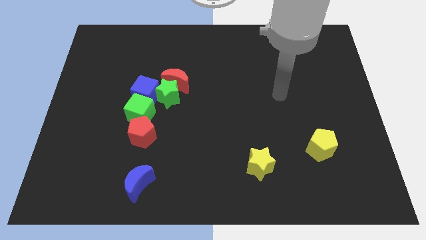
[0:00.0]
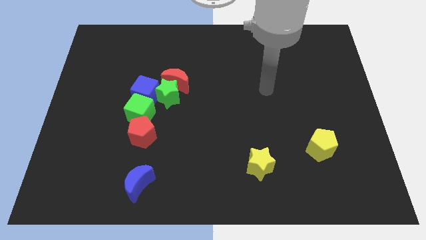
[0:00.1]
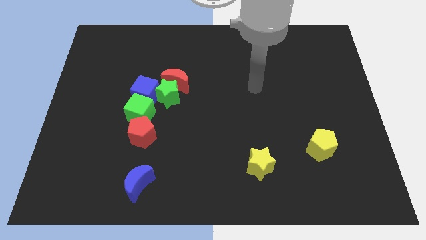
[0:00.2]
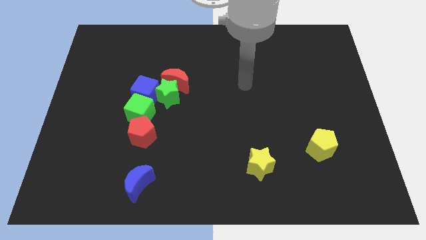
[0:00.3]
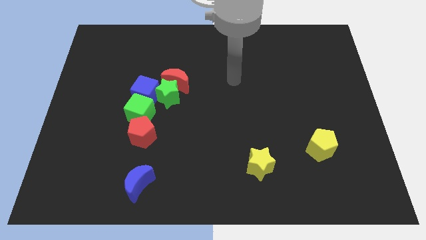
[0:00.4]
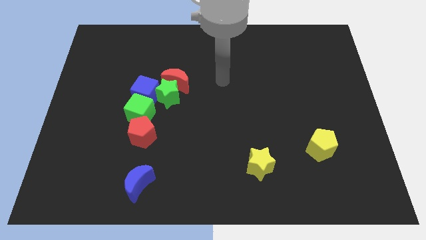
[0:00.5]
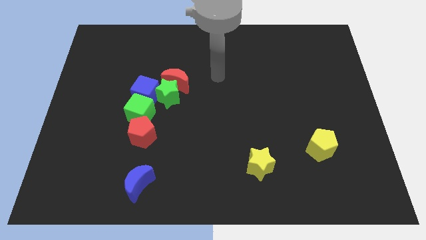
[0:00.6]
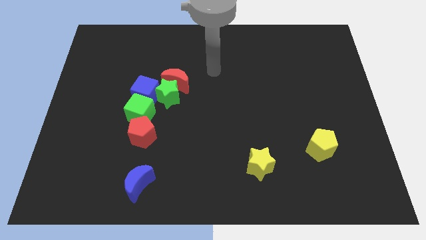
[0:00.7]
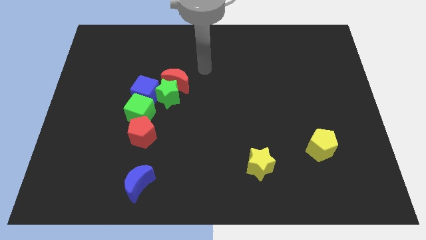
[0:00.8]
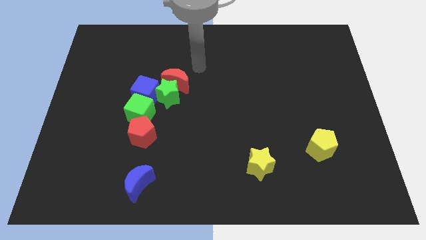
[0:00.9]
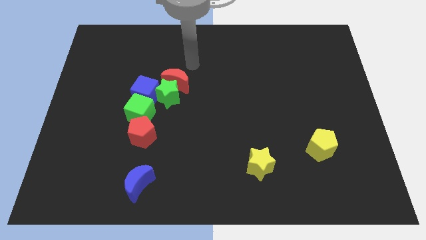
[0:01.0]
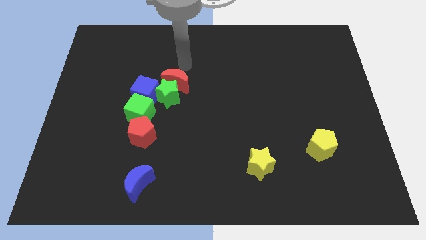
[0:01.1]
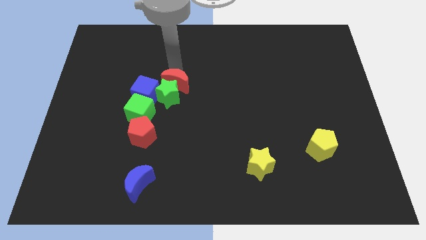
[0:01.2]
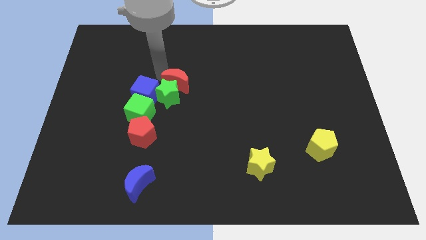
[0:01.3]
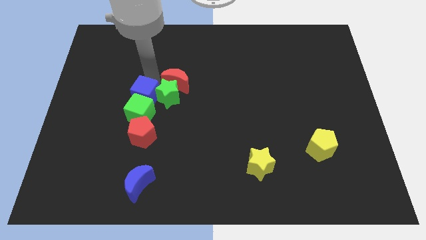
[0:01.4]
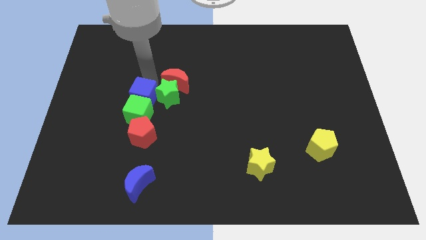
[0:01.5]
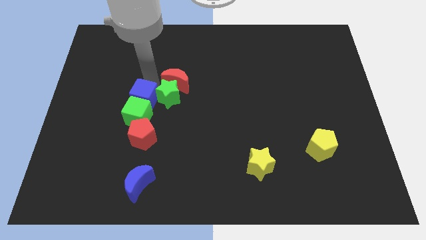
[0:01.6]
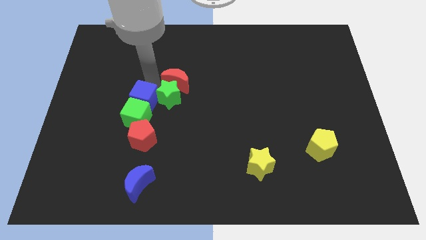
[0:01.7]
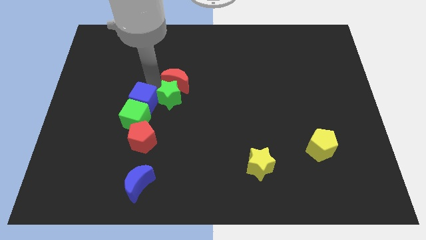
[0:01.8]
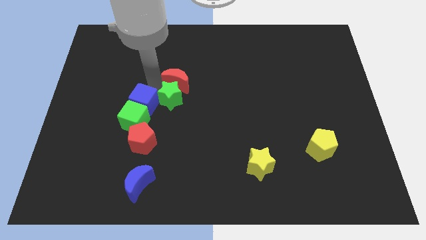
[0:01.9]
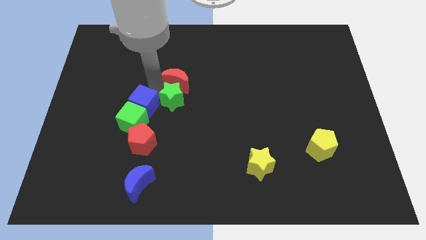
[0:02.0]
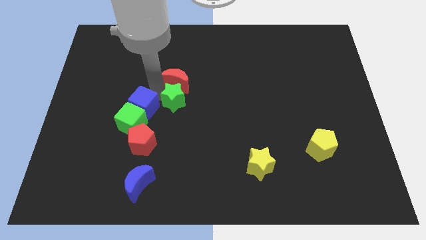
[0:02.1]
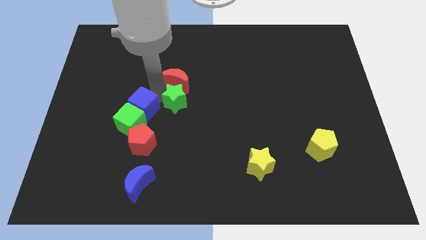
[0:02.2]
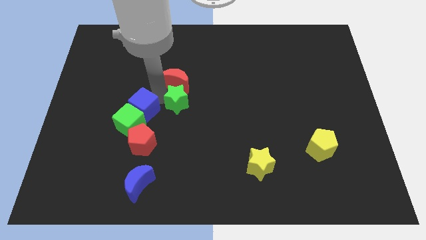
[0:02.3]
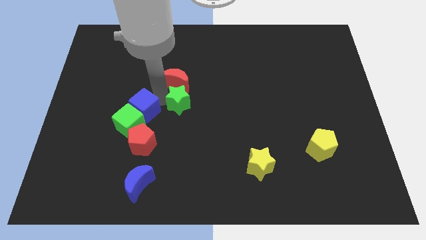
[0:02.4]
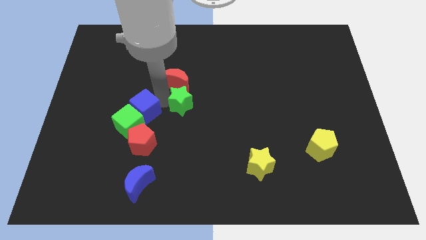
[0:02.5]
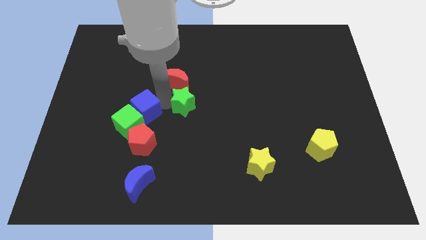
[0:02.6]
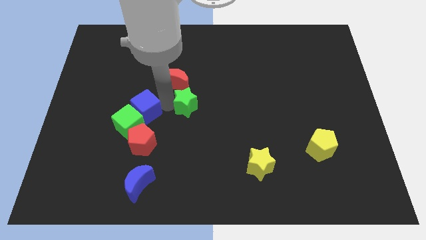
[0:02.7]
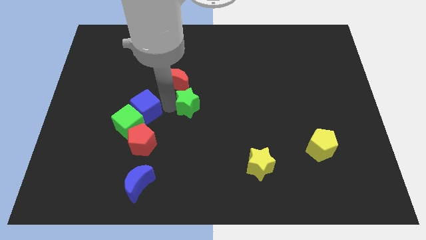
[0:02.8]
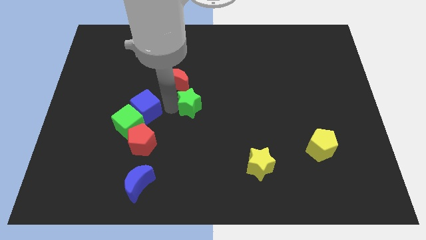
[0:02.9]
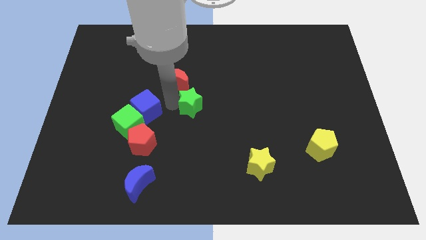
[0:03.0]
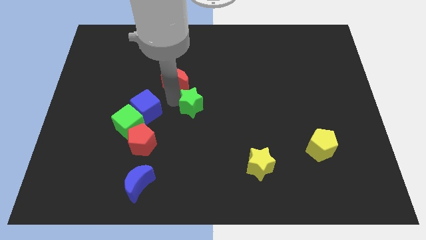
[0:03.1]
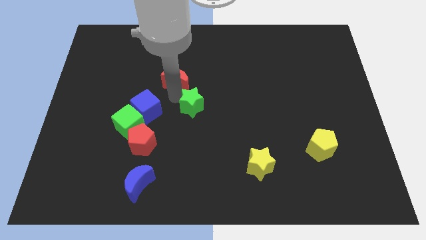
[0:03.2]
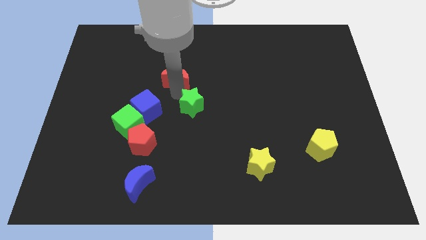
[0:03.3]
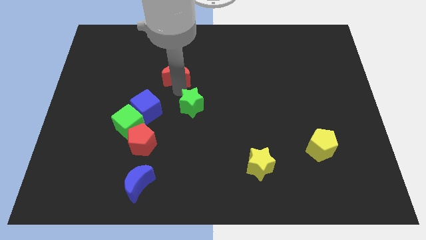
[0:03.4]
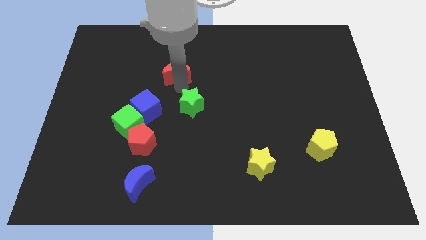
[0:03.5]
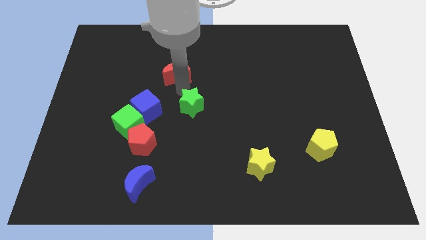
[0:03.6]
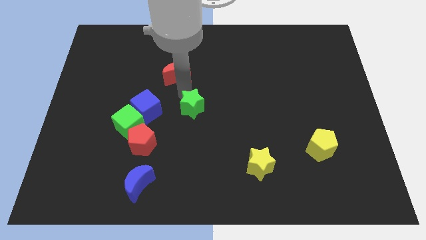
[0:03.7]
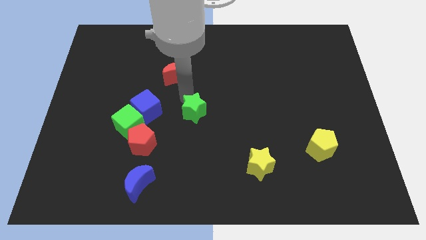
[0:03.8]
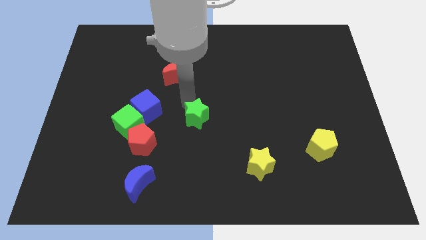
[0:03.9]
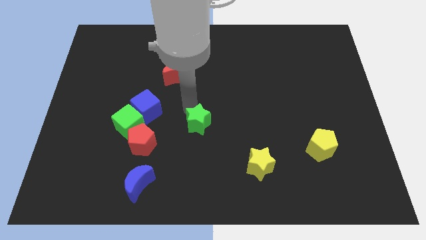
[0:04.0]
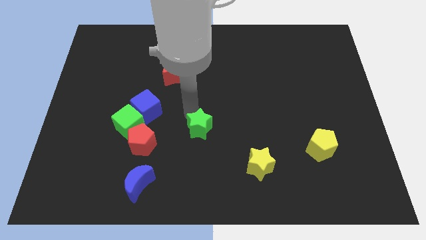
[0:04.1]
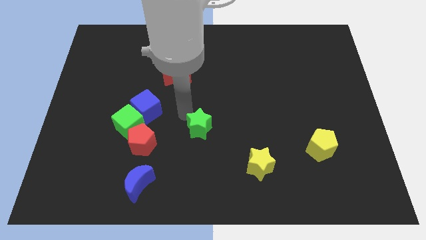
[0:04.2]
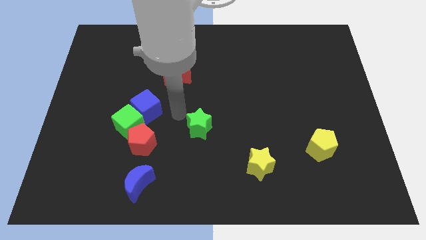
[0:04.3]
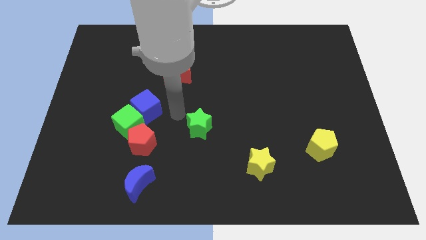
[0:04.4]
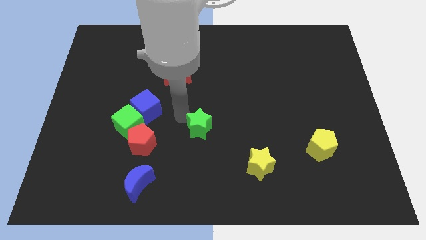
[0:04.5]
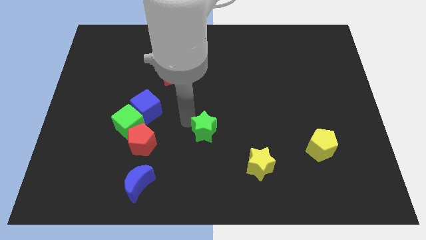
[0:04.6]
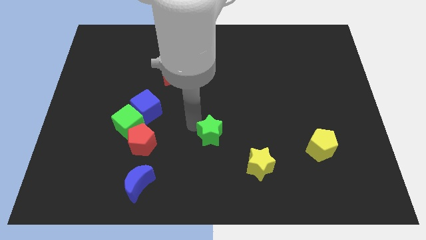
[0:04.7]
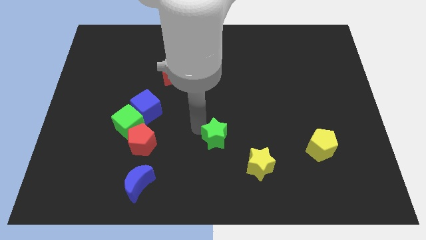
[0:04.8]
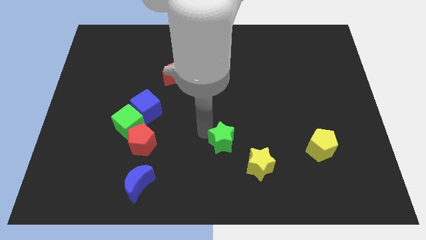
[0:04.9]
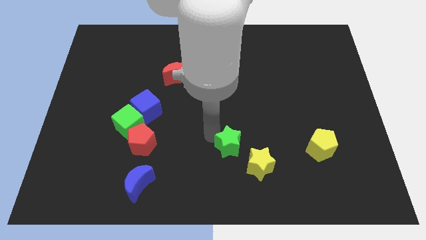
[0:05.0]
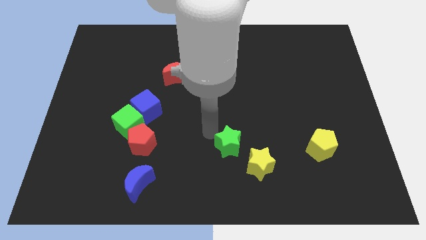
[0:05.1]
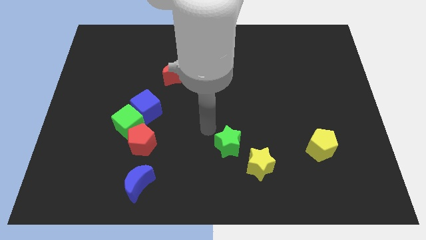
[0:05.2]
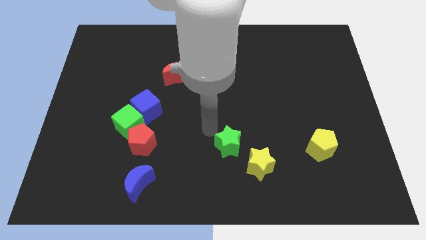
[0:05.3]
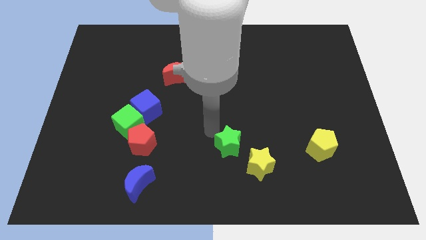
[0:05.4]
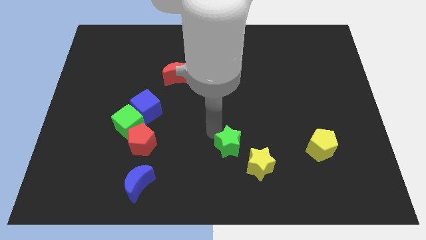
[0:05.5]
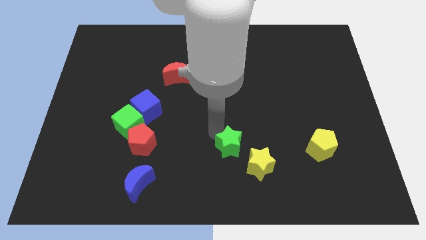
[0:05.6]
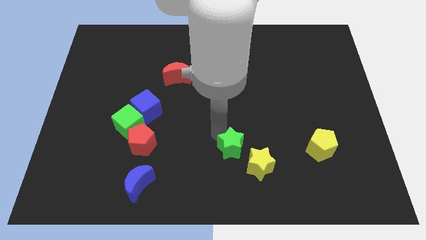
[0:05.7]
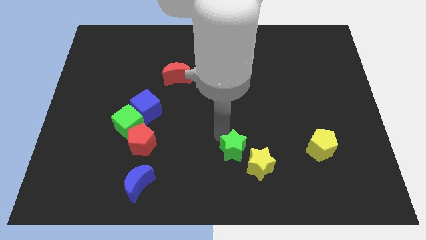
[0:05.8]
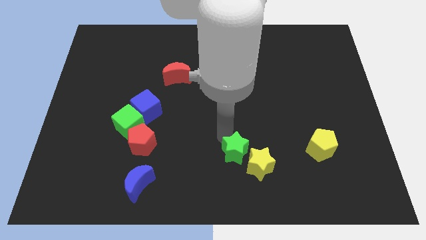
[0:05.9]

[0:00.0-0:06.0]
slide the green star close to the yellow star

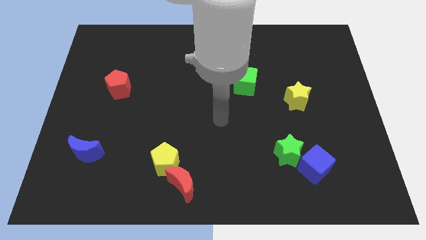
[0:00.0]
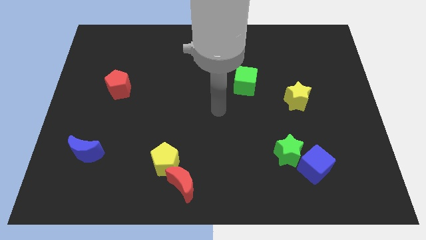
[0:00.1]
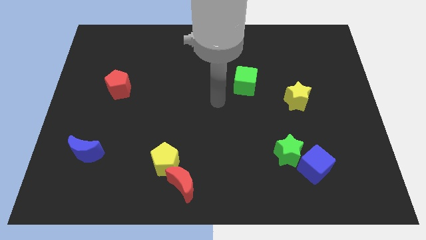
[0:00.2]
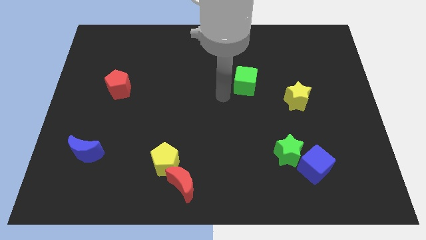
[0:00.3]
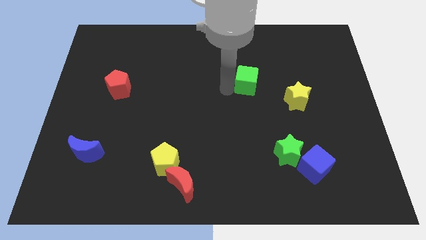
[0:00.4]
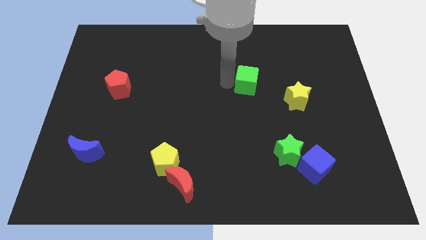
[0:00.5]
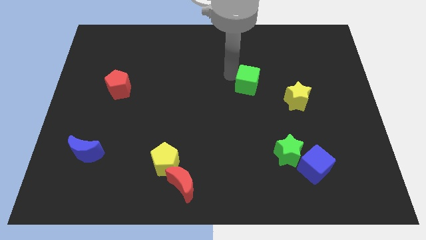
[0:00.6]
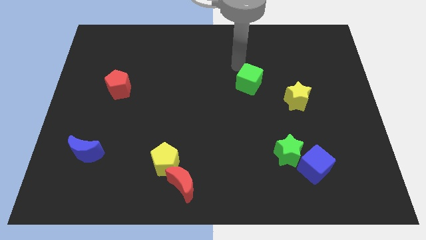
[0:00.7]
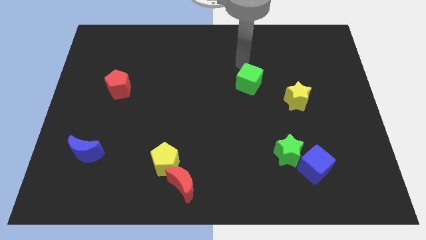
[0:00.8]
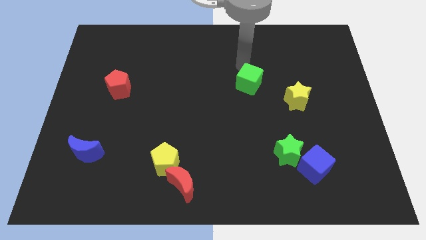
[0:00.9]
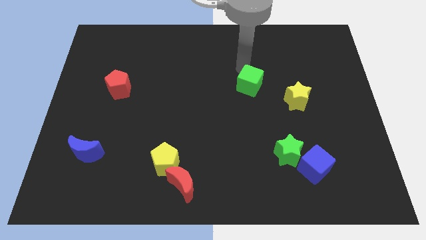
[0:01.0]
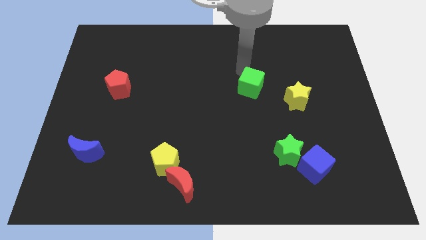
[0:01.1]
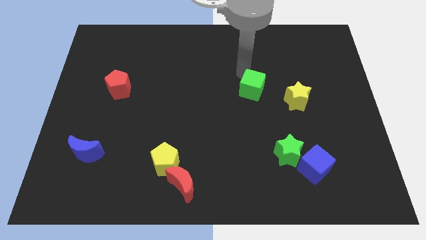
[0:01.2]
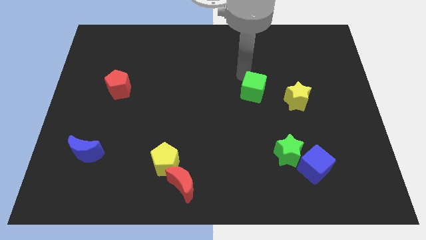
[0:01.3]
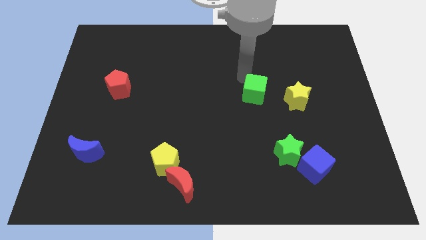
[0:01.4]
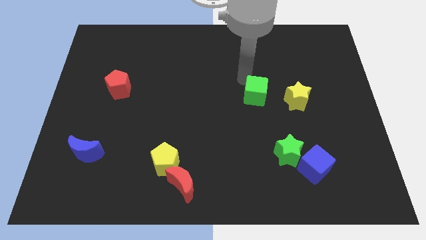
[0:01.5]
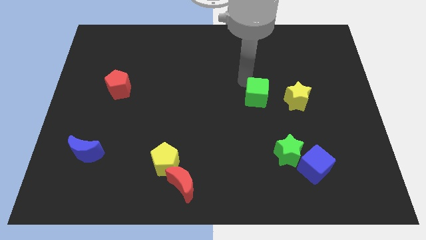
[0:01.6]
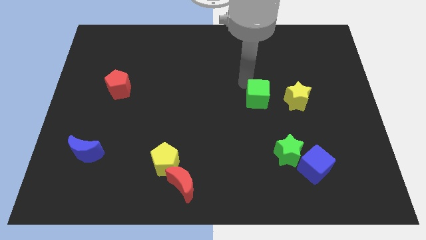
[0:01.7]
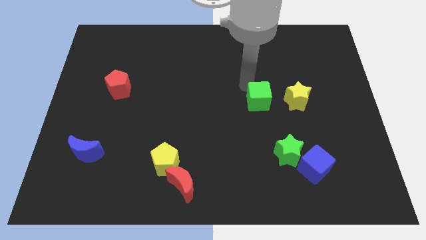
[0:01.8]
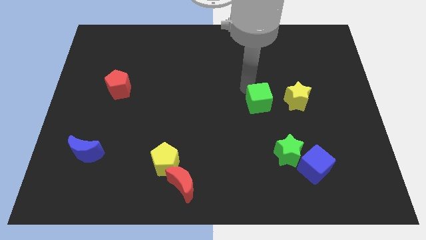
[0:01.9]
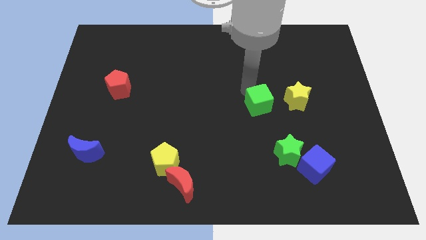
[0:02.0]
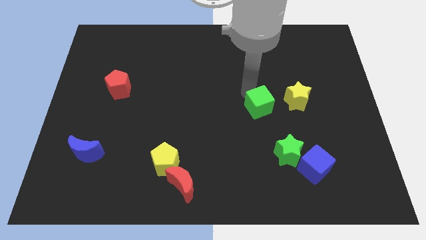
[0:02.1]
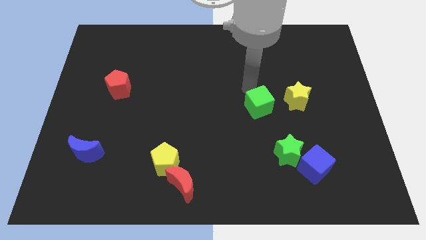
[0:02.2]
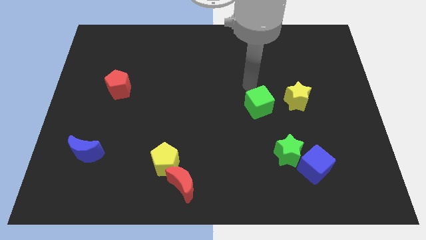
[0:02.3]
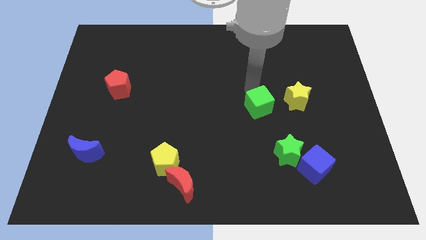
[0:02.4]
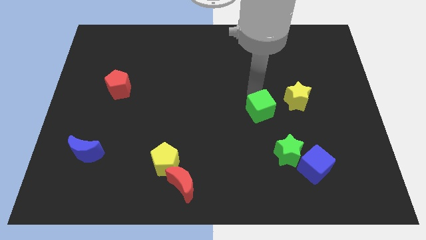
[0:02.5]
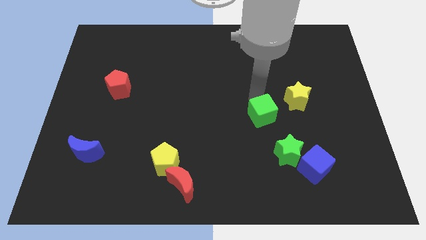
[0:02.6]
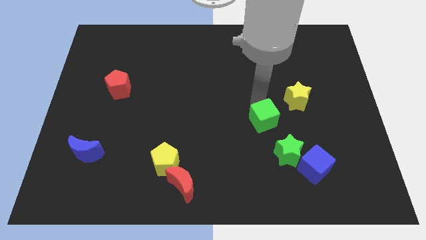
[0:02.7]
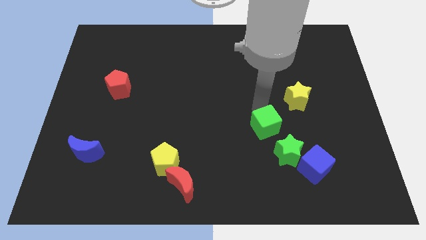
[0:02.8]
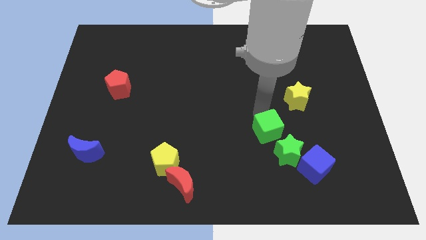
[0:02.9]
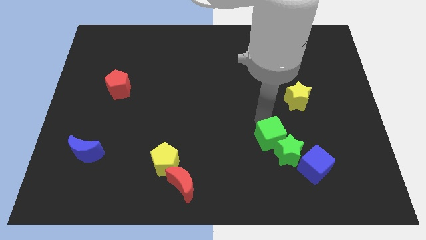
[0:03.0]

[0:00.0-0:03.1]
put the green cube next to the green star
